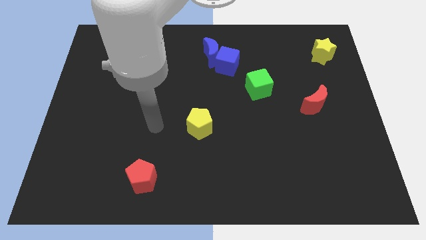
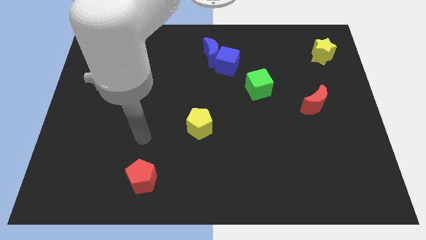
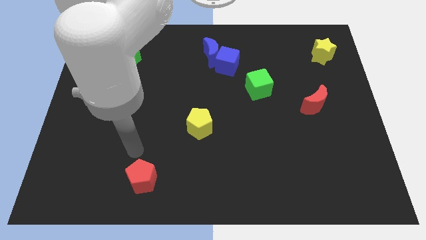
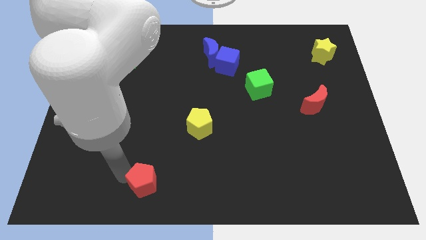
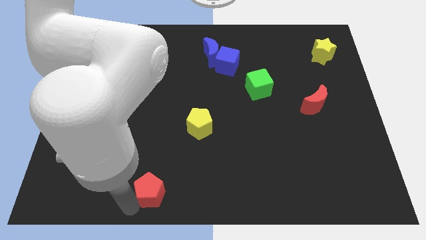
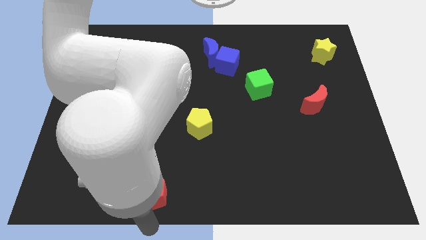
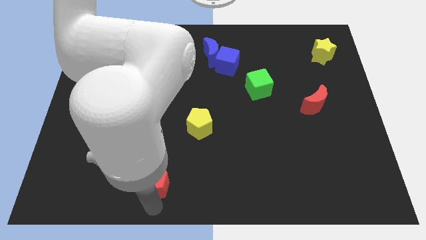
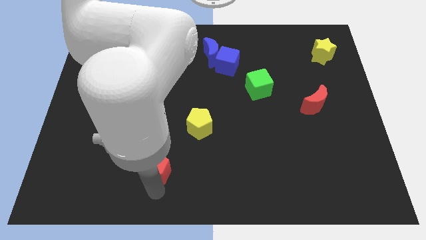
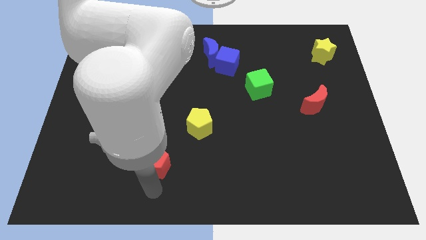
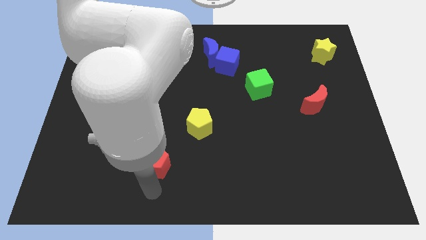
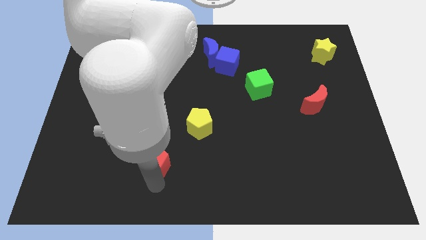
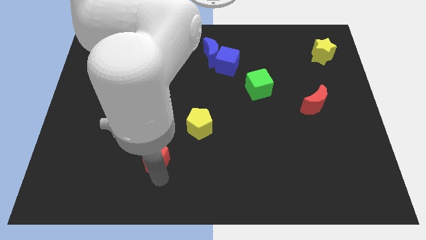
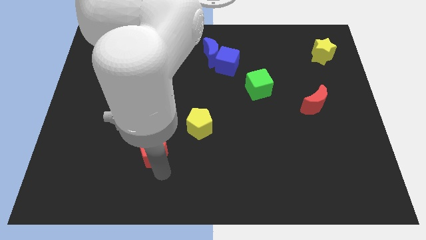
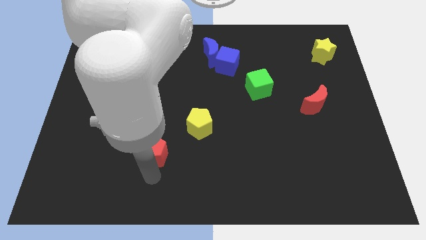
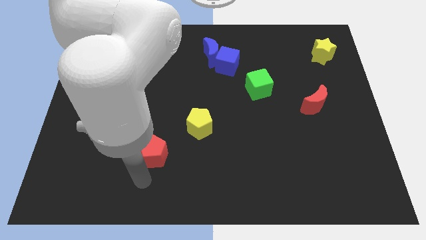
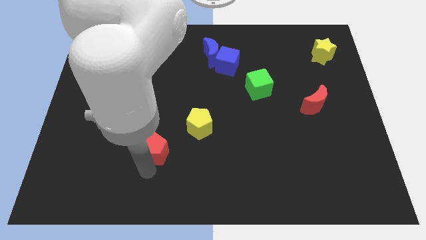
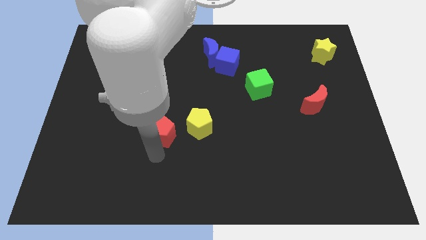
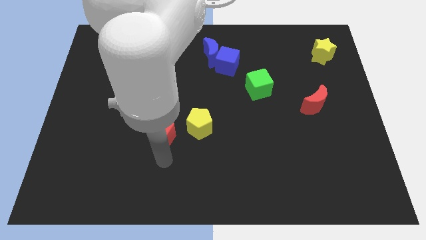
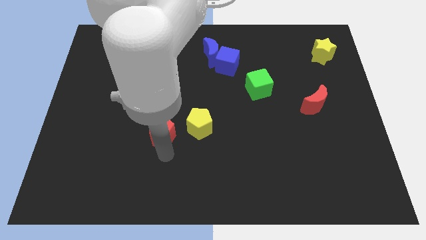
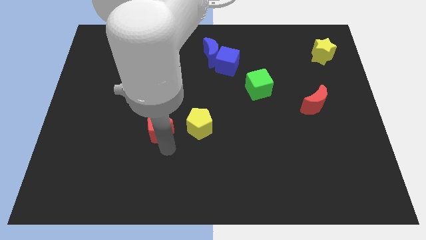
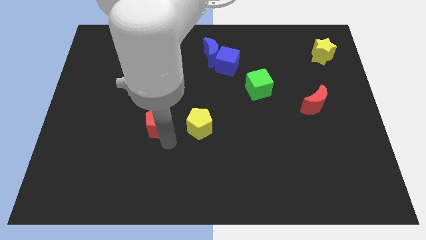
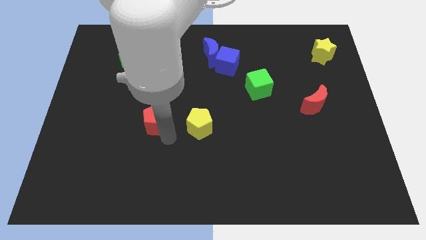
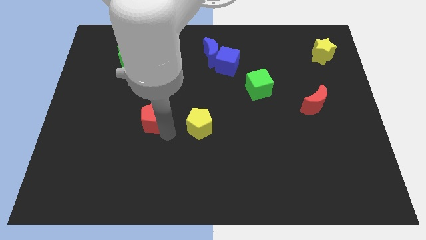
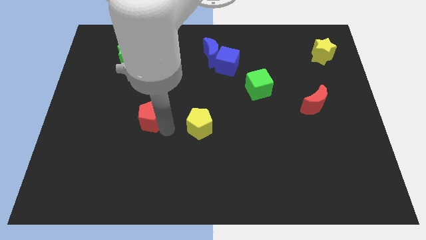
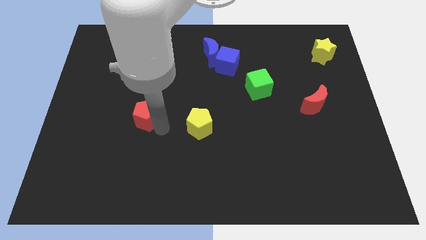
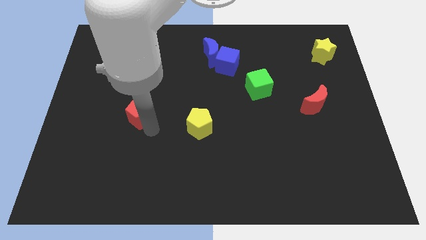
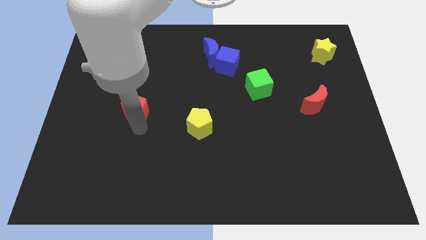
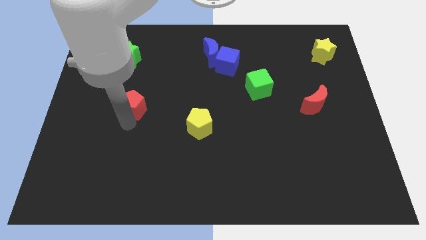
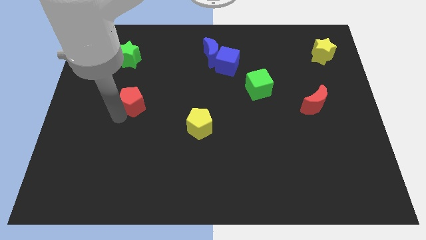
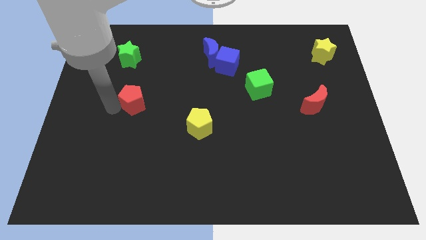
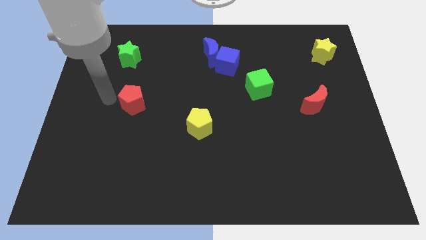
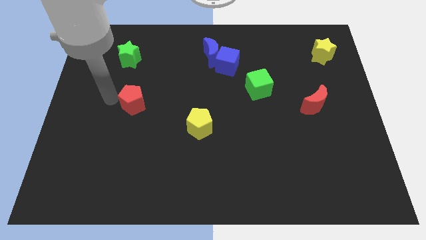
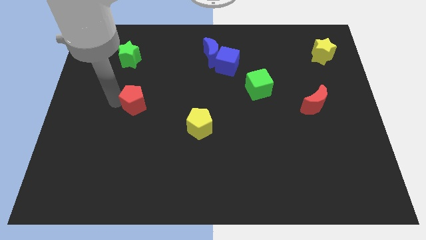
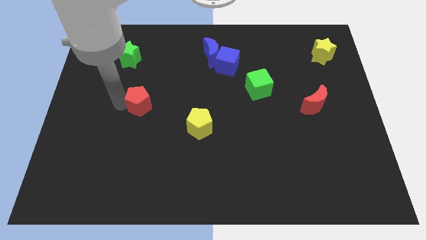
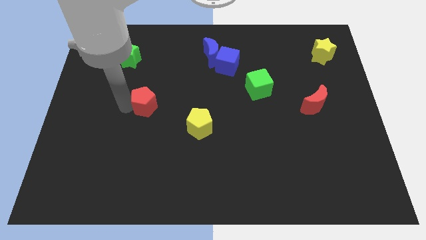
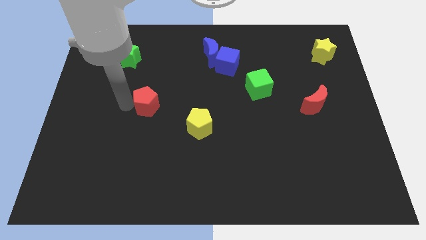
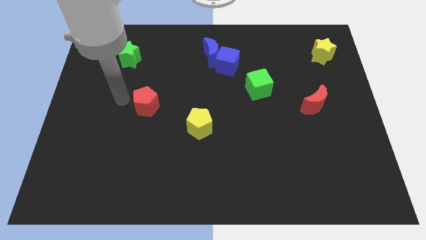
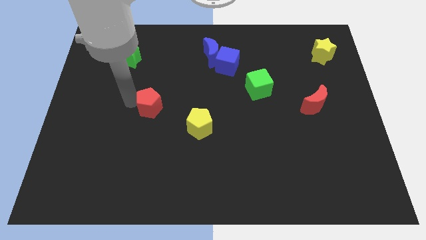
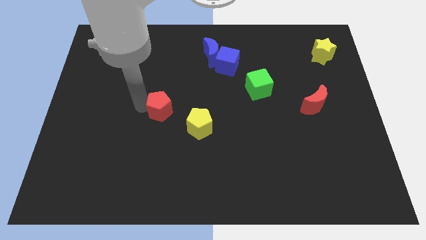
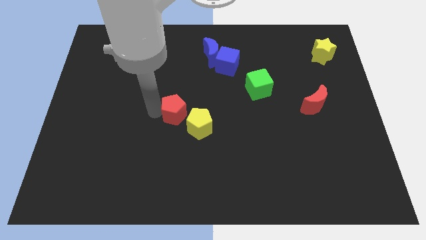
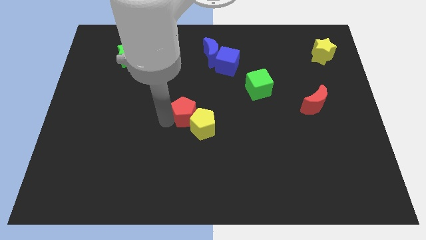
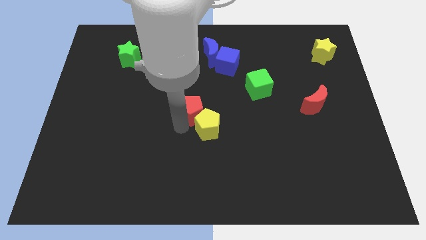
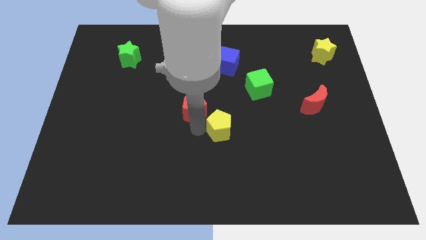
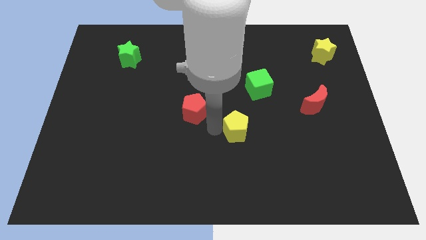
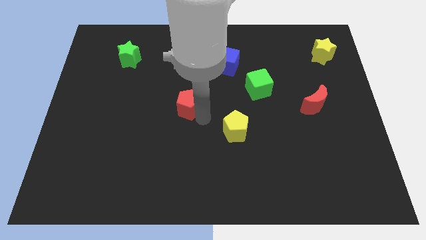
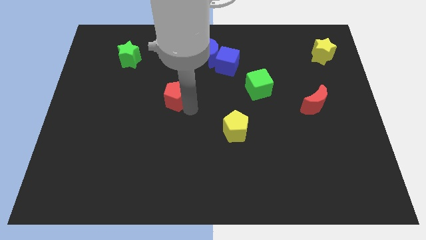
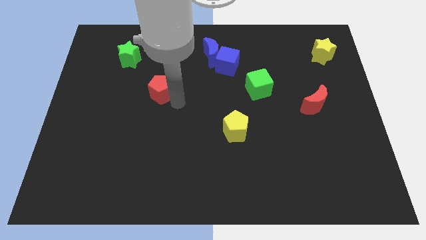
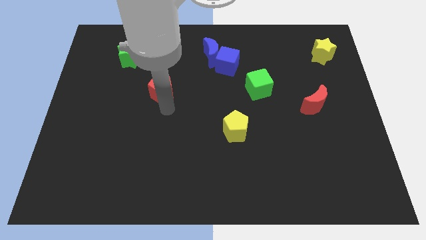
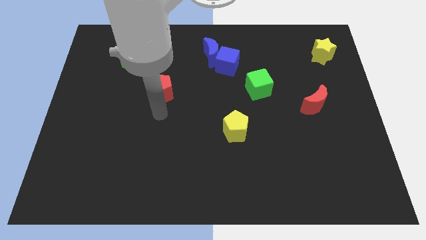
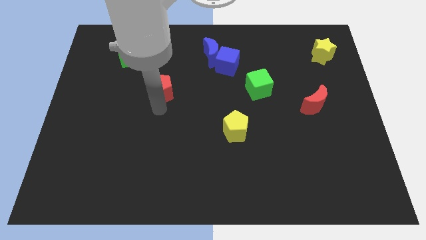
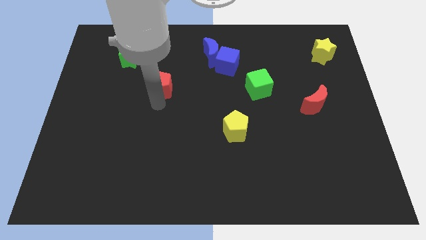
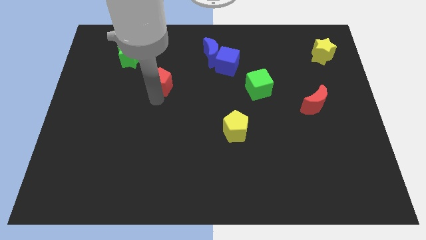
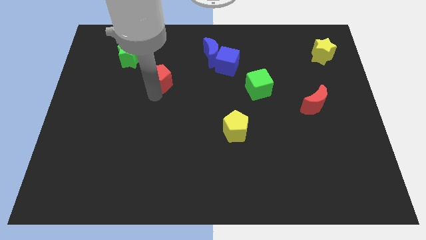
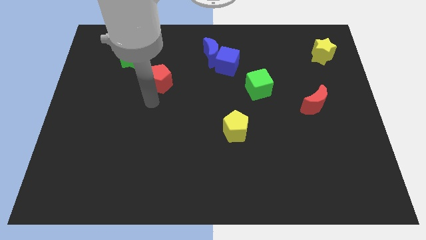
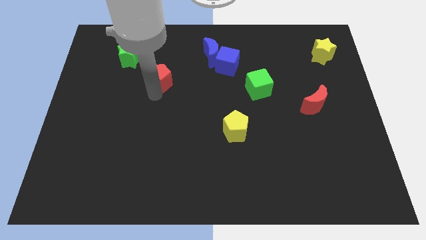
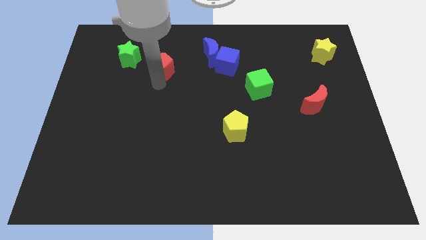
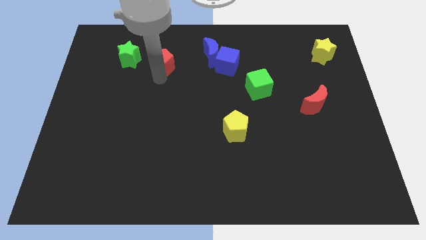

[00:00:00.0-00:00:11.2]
put the red pentagon to the left of the blue moon
